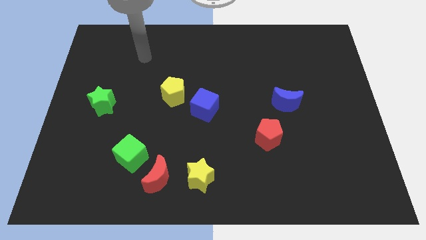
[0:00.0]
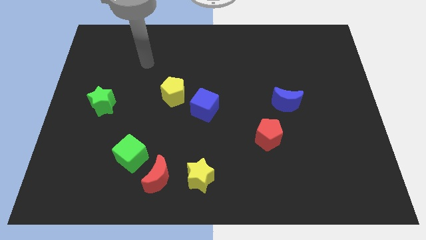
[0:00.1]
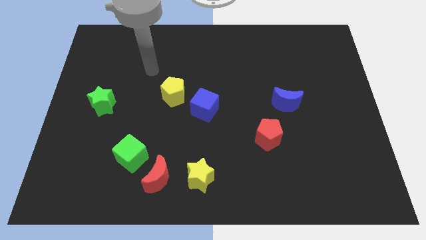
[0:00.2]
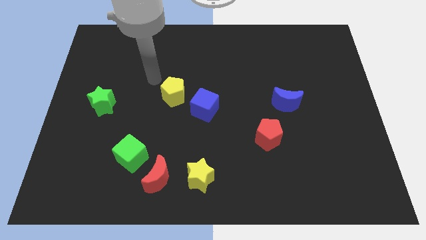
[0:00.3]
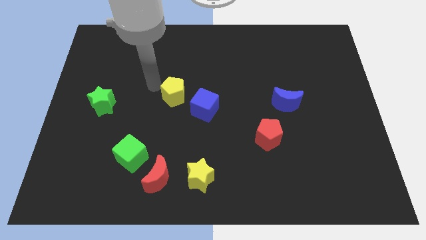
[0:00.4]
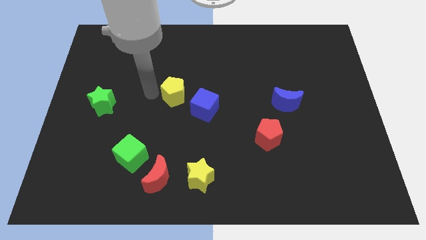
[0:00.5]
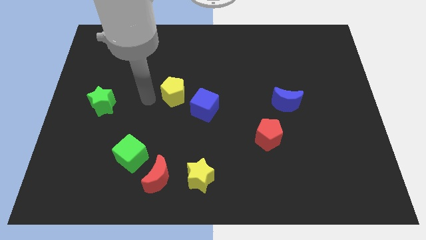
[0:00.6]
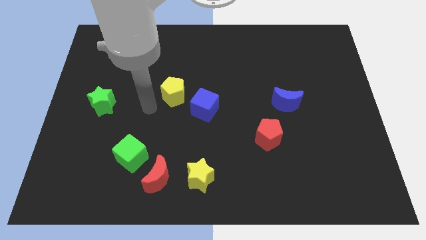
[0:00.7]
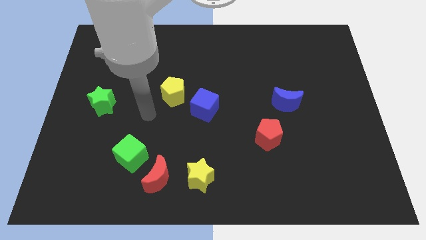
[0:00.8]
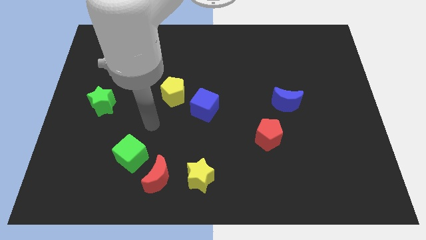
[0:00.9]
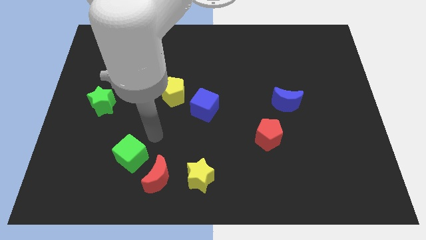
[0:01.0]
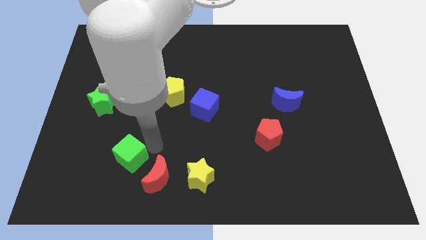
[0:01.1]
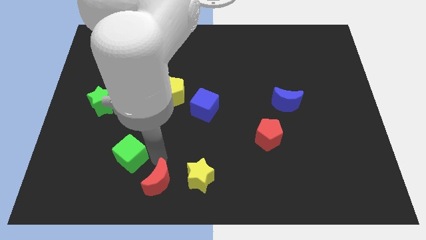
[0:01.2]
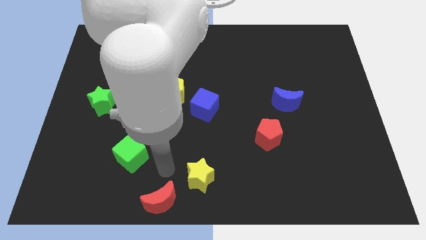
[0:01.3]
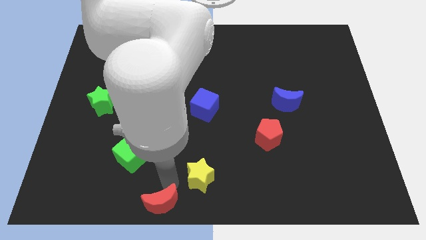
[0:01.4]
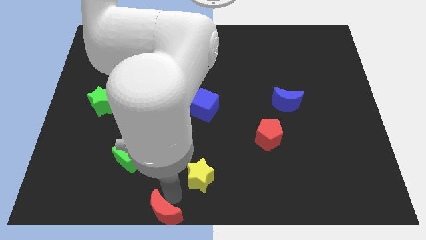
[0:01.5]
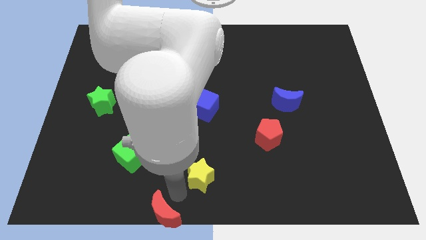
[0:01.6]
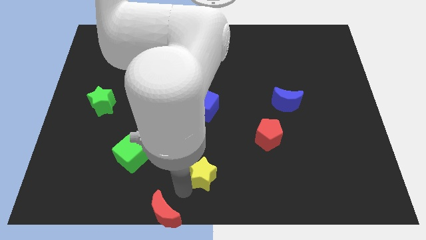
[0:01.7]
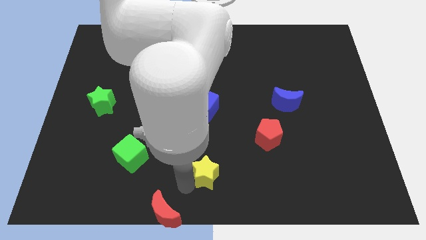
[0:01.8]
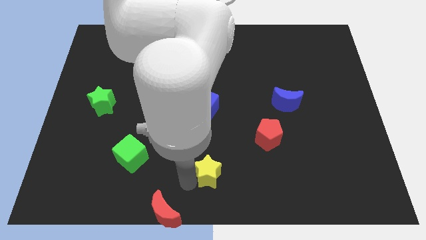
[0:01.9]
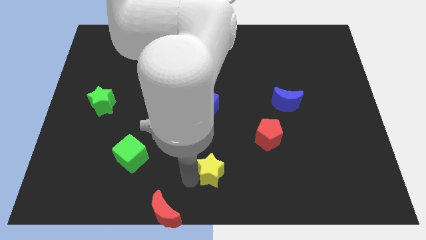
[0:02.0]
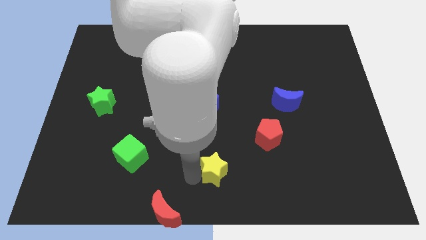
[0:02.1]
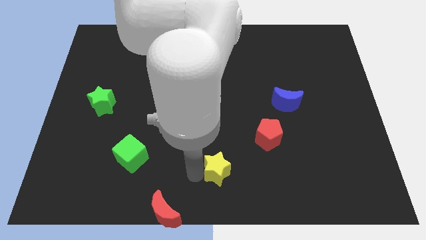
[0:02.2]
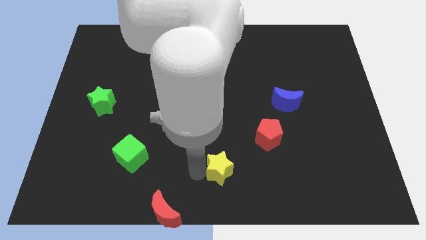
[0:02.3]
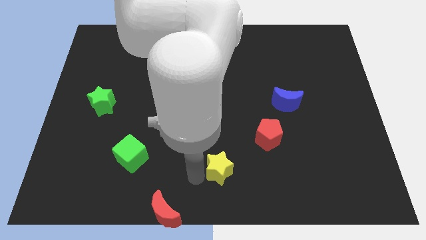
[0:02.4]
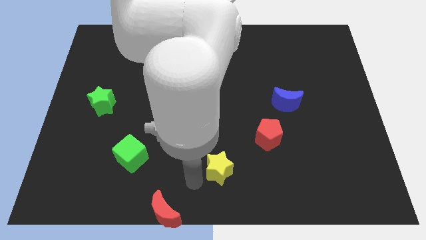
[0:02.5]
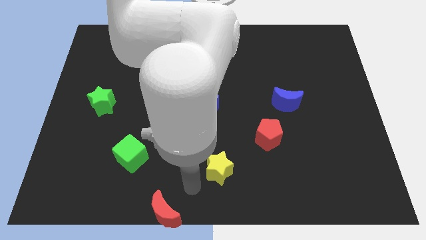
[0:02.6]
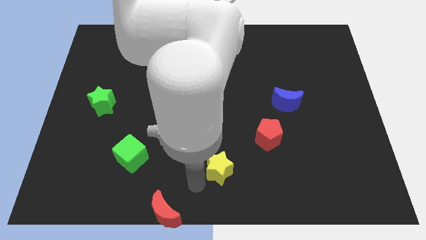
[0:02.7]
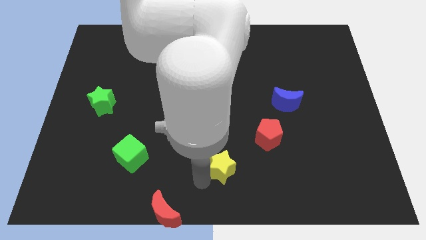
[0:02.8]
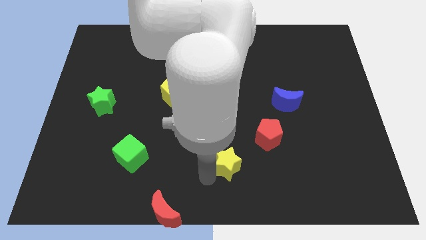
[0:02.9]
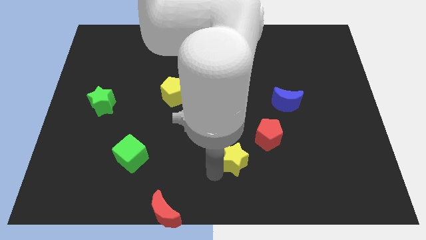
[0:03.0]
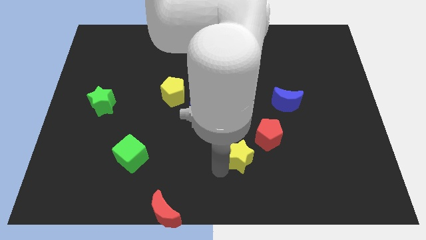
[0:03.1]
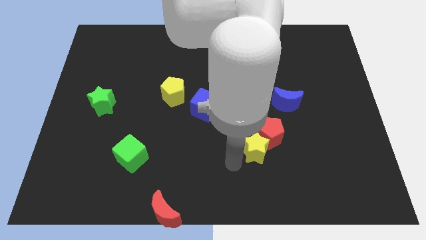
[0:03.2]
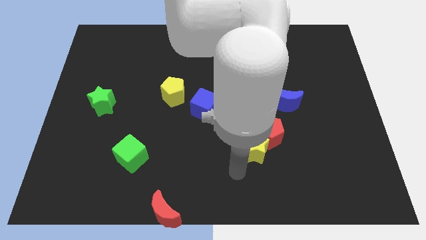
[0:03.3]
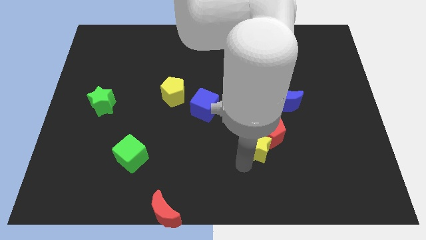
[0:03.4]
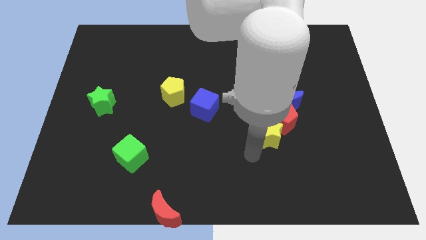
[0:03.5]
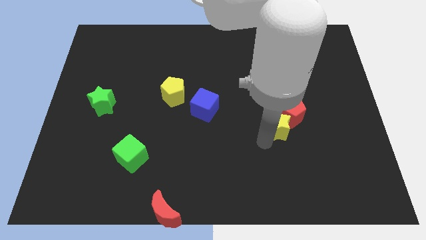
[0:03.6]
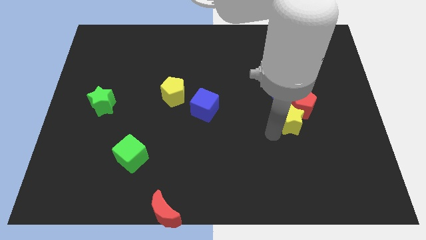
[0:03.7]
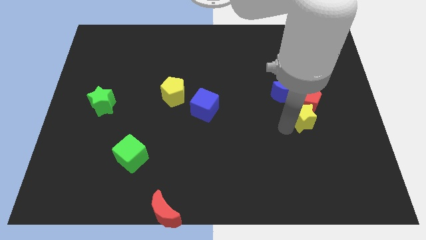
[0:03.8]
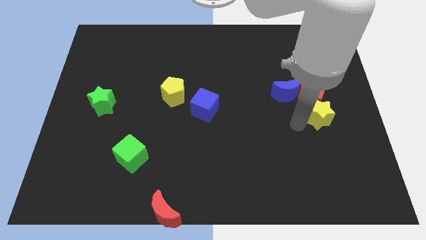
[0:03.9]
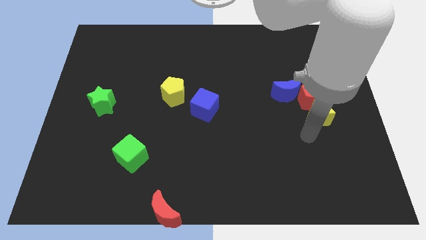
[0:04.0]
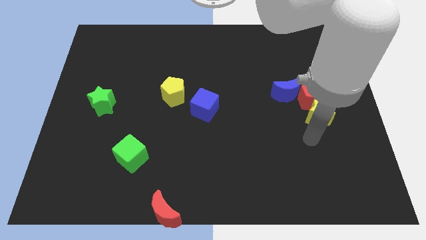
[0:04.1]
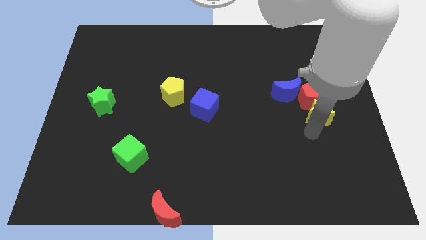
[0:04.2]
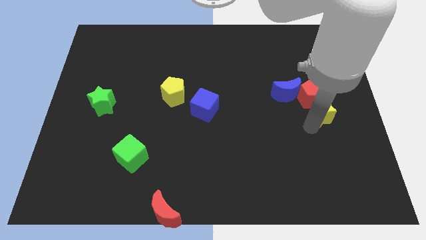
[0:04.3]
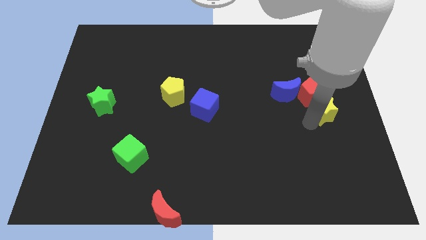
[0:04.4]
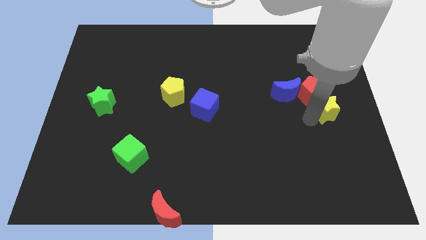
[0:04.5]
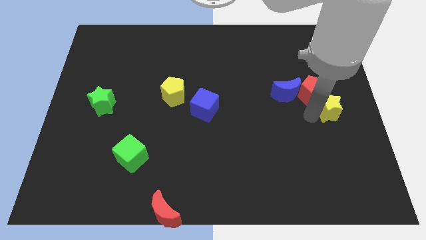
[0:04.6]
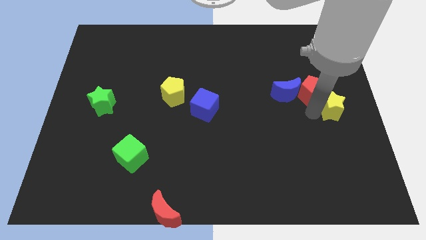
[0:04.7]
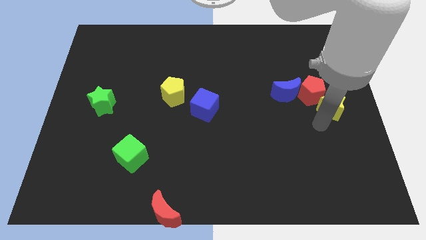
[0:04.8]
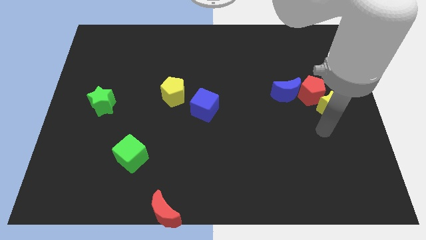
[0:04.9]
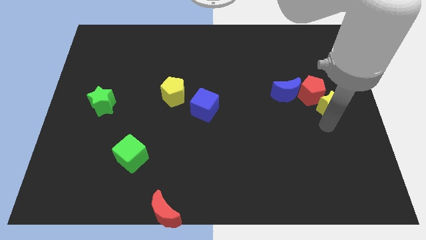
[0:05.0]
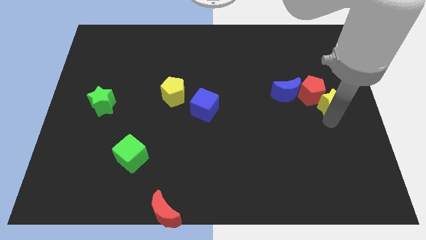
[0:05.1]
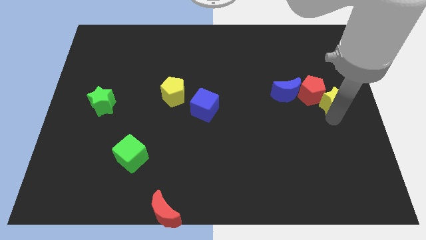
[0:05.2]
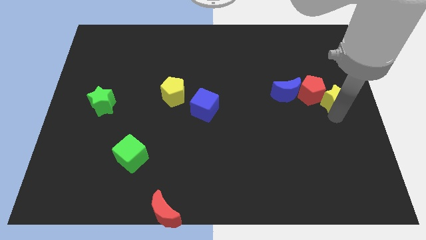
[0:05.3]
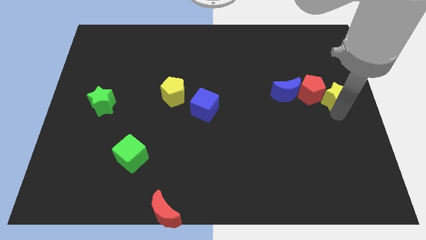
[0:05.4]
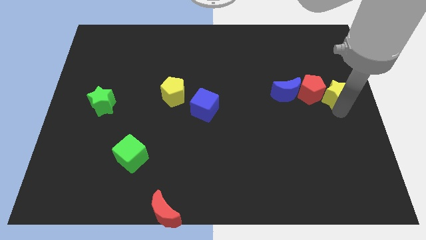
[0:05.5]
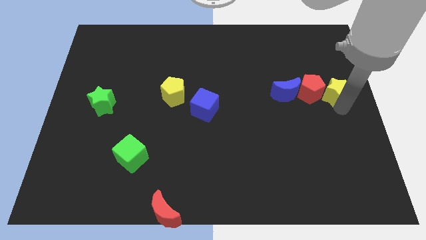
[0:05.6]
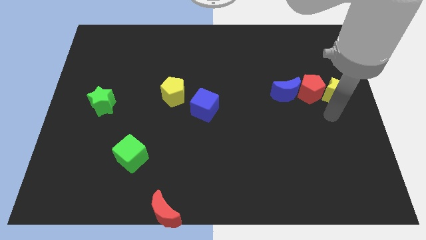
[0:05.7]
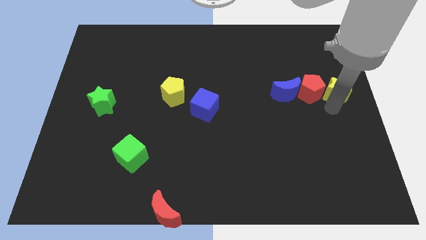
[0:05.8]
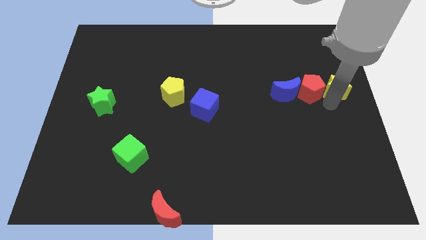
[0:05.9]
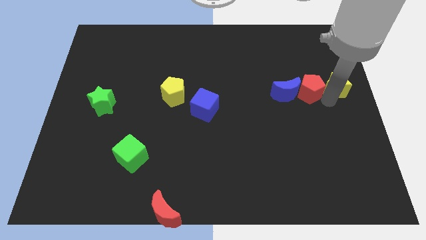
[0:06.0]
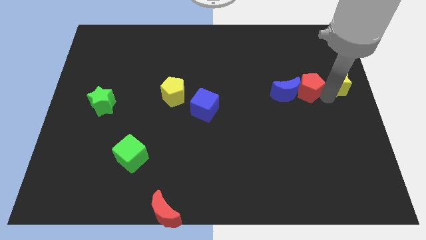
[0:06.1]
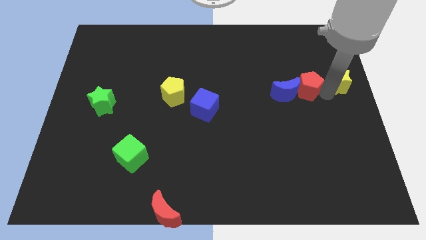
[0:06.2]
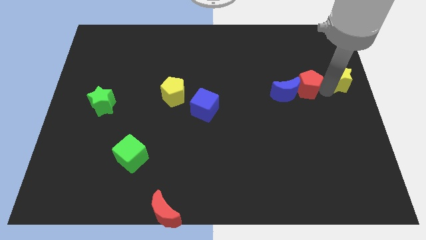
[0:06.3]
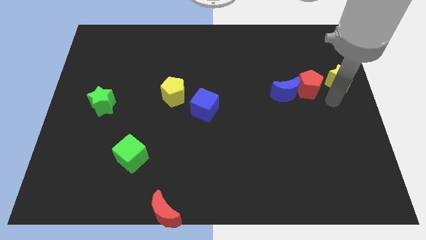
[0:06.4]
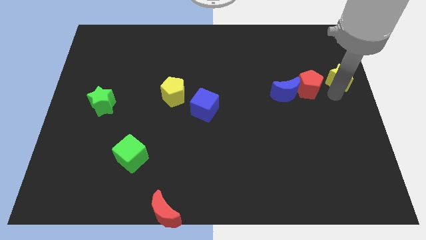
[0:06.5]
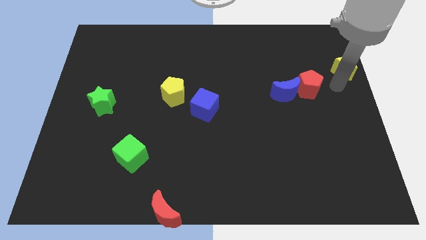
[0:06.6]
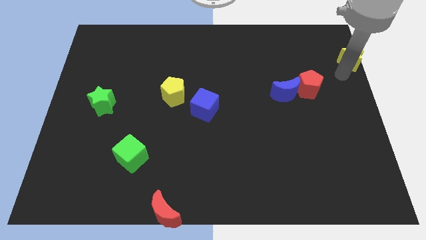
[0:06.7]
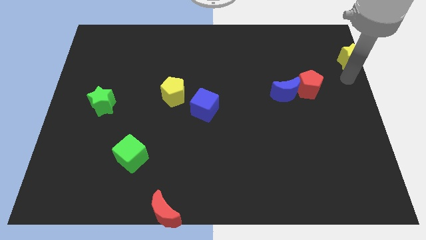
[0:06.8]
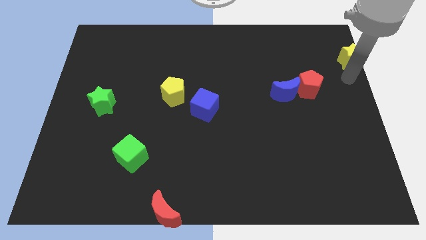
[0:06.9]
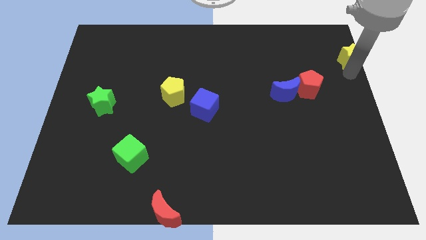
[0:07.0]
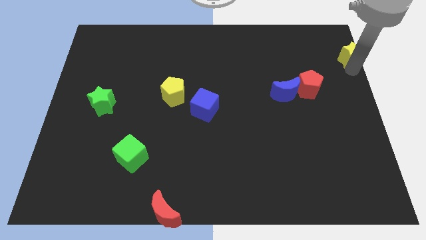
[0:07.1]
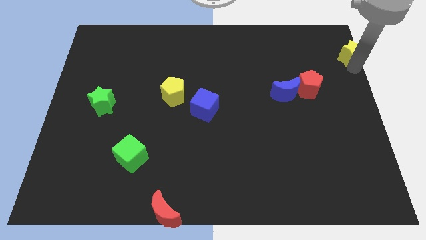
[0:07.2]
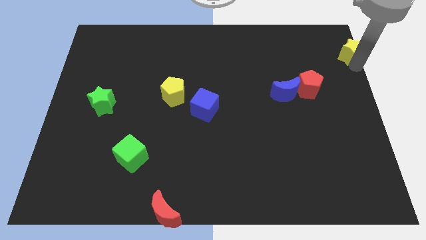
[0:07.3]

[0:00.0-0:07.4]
move the yellow star to the upper right corner
